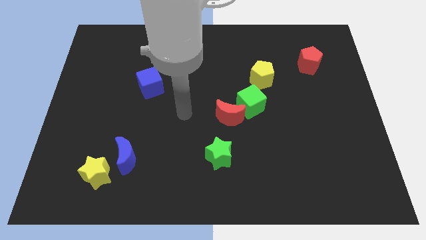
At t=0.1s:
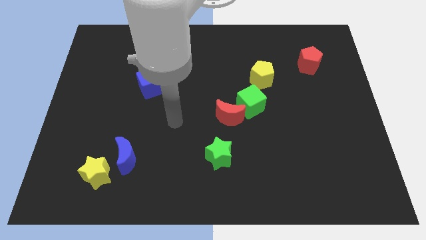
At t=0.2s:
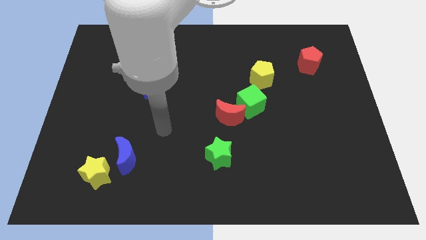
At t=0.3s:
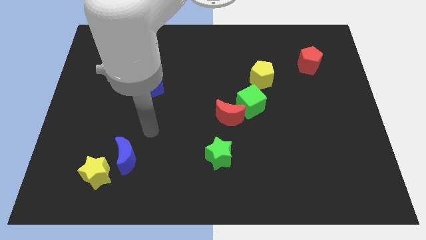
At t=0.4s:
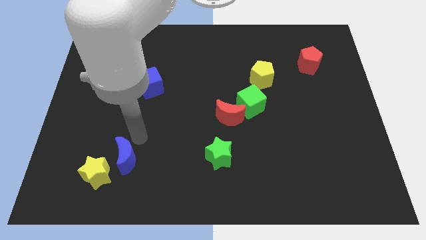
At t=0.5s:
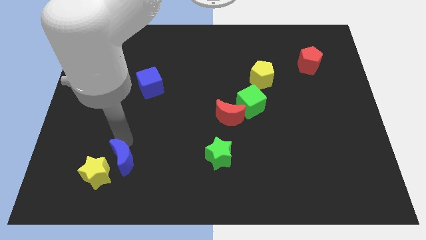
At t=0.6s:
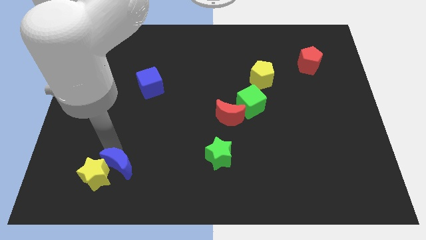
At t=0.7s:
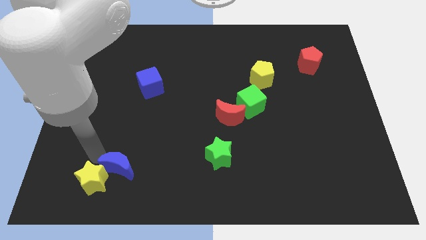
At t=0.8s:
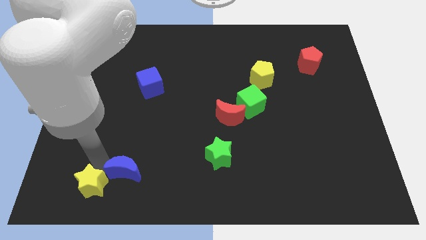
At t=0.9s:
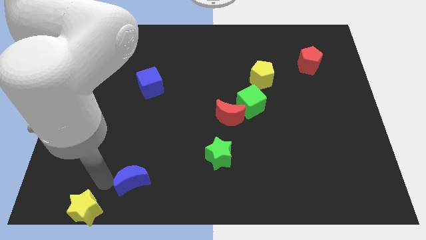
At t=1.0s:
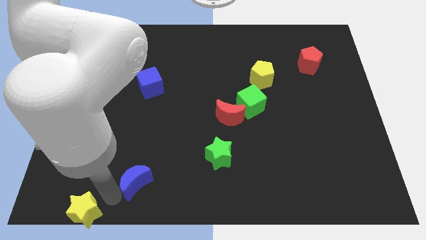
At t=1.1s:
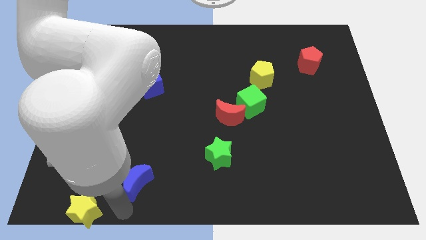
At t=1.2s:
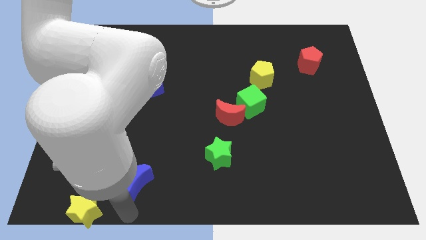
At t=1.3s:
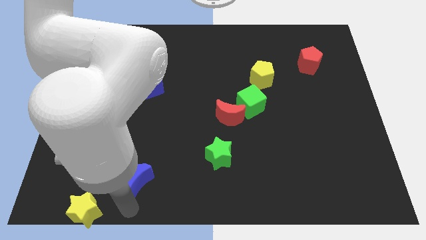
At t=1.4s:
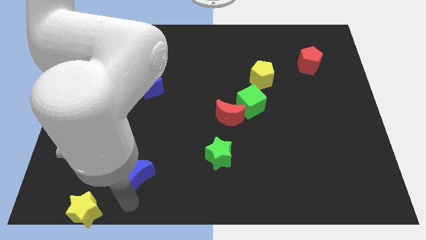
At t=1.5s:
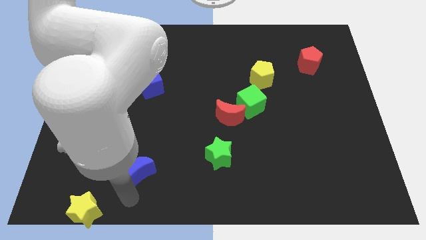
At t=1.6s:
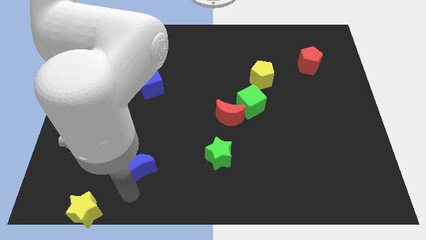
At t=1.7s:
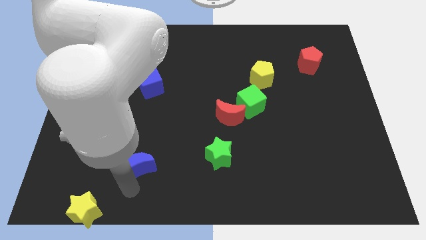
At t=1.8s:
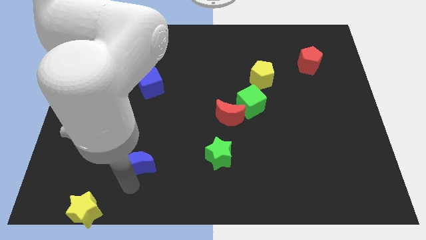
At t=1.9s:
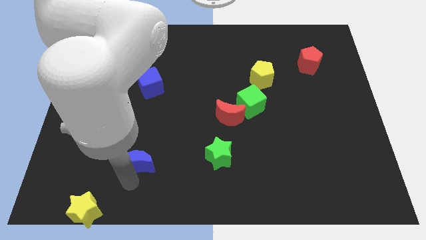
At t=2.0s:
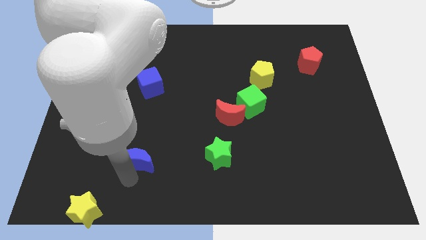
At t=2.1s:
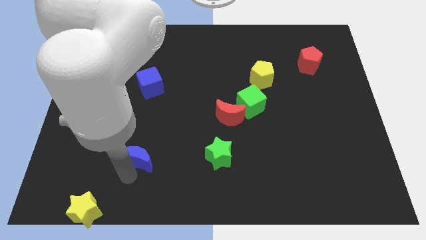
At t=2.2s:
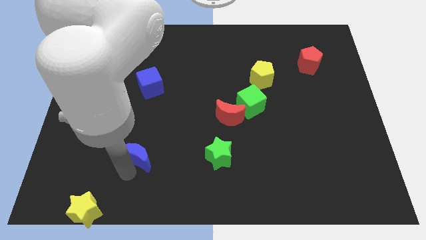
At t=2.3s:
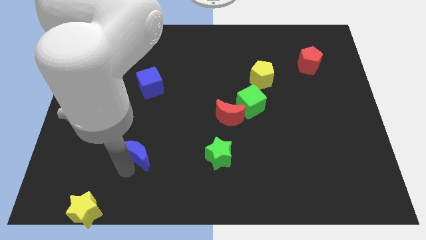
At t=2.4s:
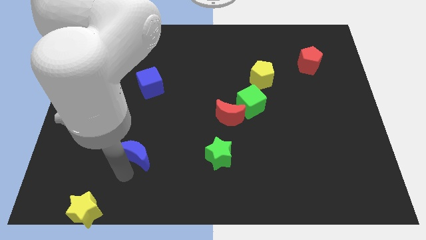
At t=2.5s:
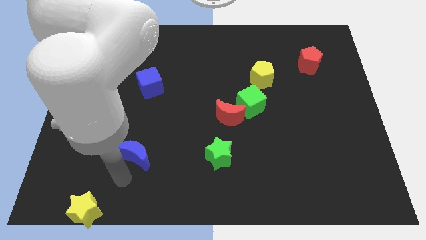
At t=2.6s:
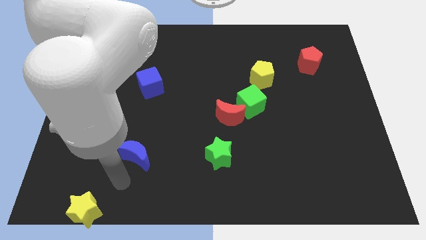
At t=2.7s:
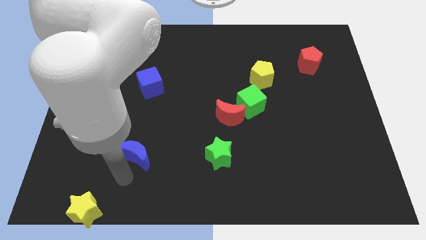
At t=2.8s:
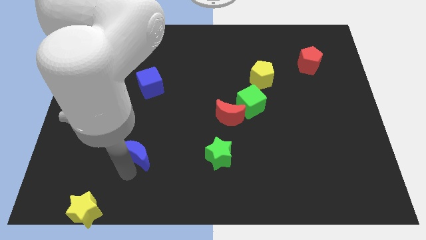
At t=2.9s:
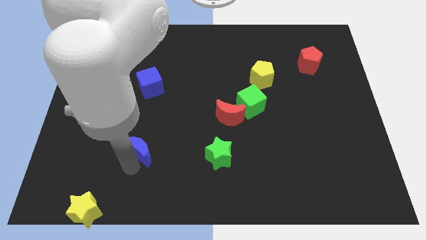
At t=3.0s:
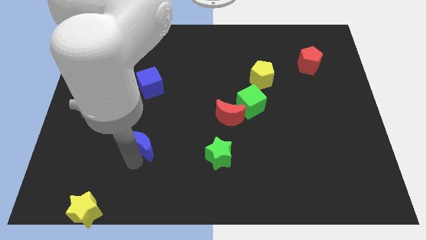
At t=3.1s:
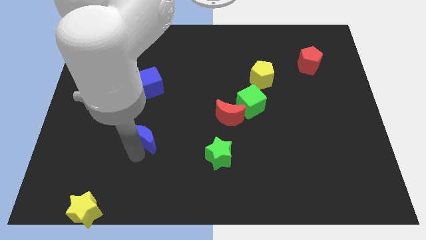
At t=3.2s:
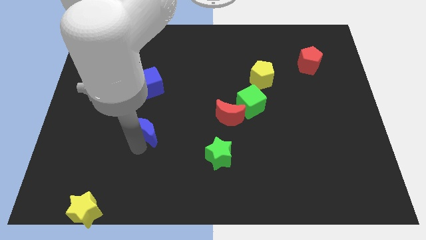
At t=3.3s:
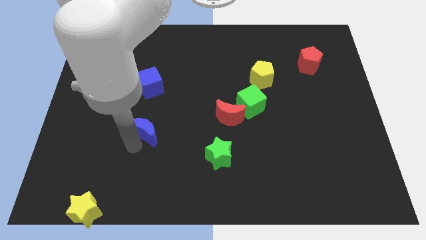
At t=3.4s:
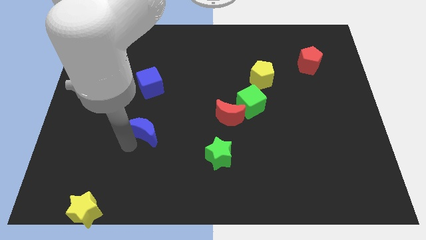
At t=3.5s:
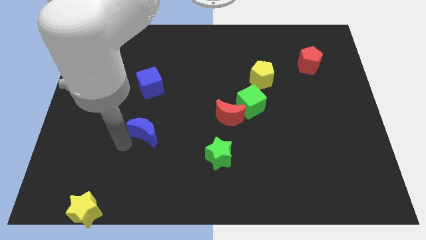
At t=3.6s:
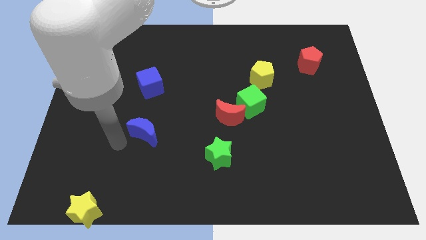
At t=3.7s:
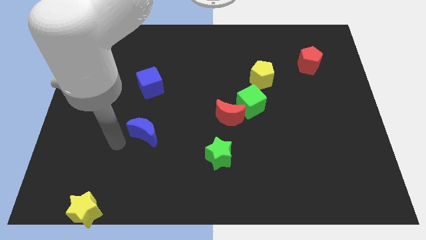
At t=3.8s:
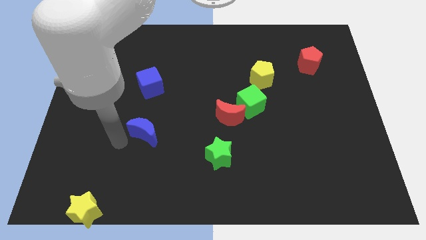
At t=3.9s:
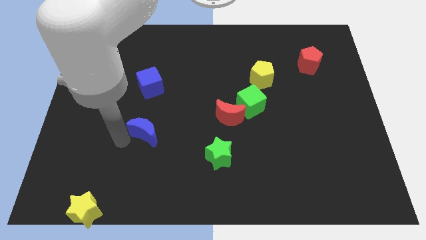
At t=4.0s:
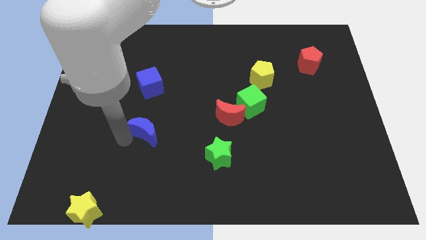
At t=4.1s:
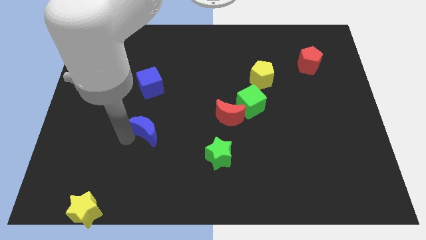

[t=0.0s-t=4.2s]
move the blue moon up and right diagonally a little bit

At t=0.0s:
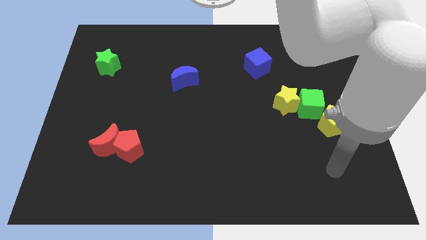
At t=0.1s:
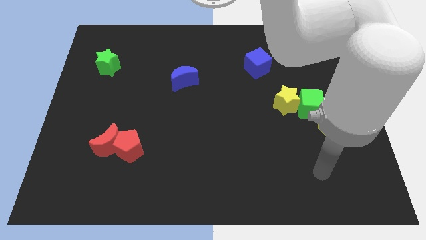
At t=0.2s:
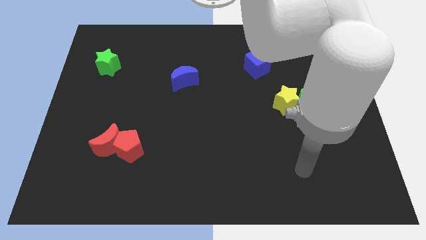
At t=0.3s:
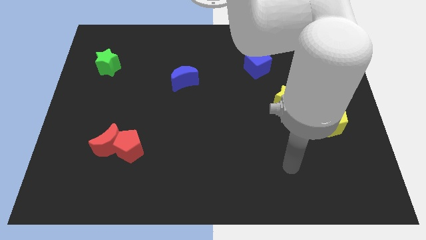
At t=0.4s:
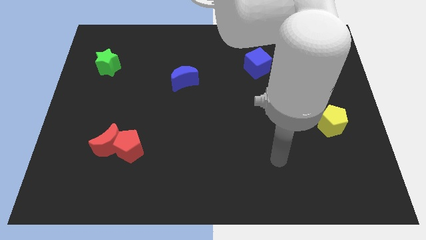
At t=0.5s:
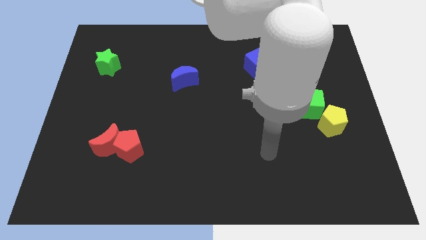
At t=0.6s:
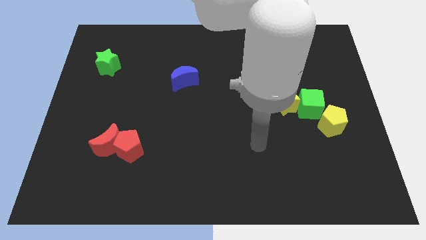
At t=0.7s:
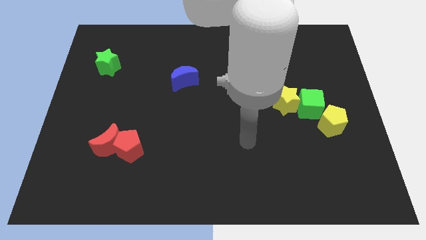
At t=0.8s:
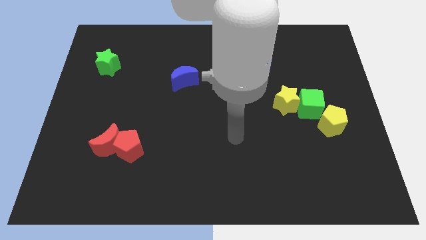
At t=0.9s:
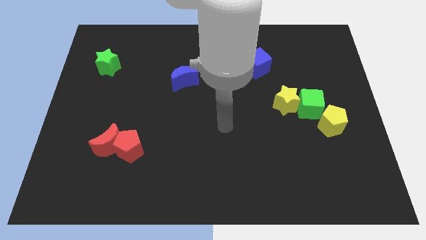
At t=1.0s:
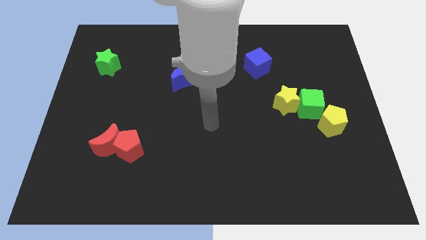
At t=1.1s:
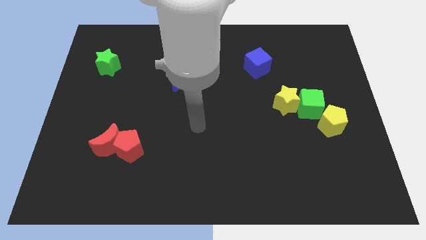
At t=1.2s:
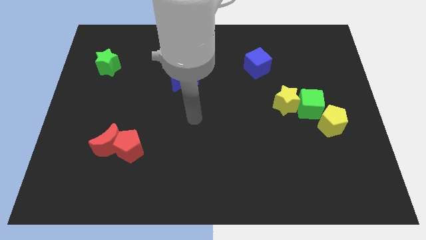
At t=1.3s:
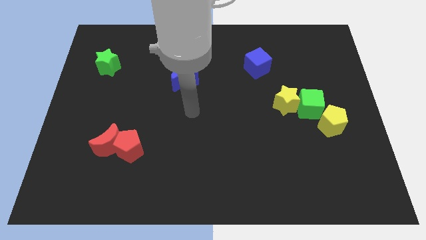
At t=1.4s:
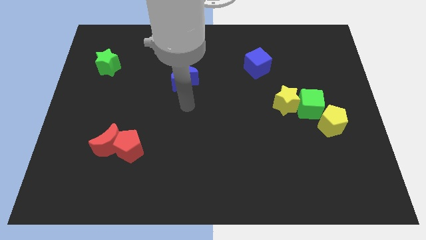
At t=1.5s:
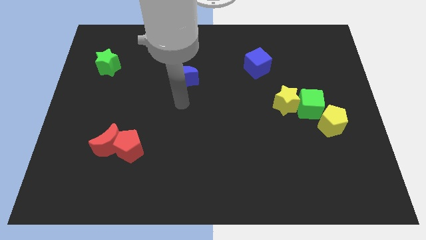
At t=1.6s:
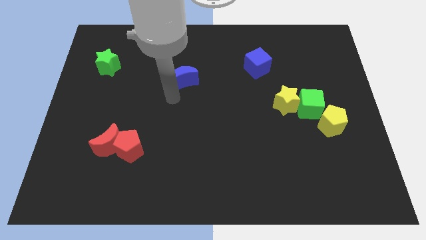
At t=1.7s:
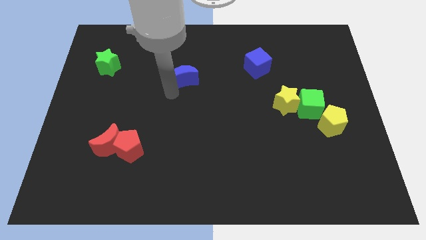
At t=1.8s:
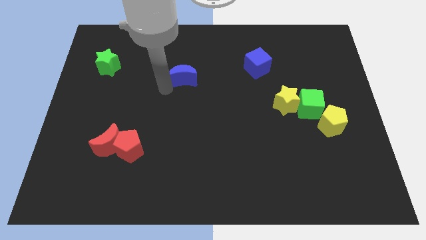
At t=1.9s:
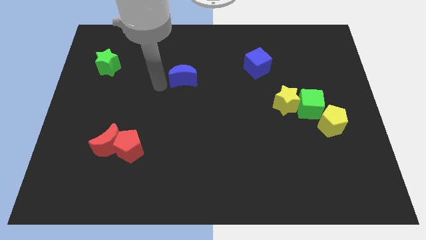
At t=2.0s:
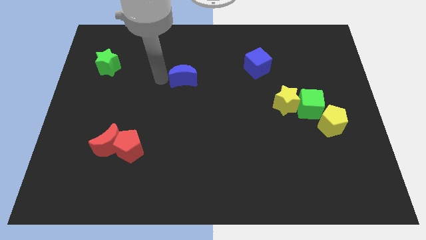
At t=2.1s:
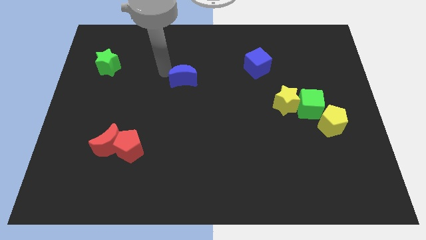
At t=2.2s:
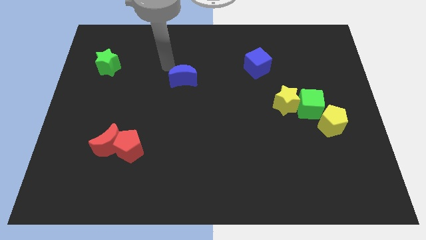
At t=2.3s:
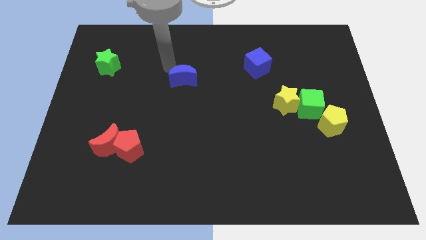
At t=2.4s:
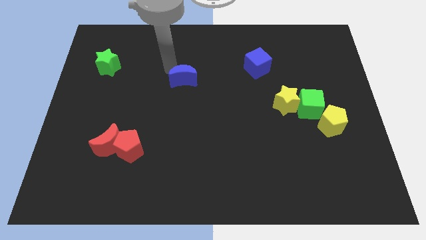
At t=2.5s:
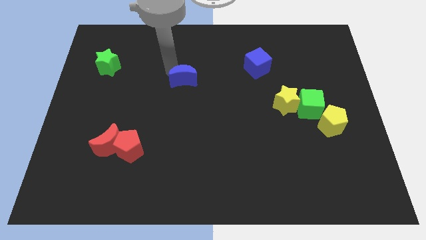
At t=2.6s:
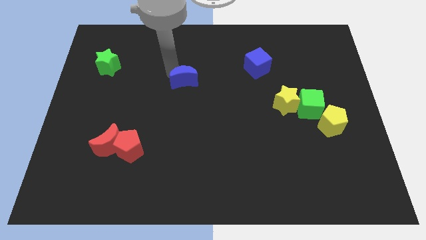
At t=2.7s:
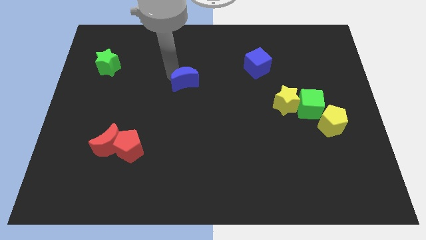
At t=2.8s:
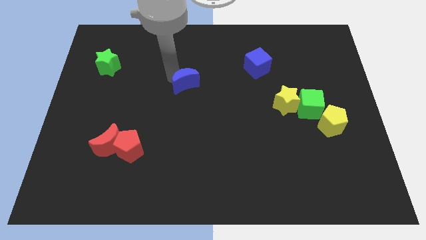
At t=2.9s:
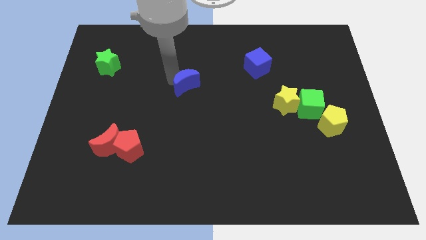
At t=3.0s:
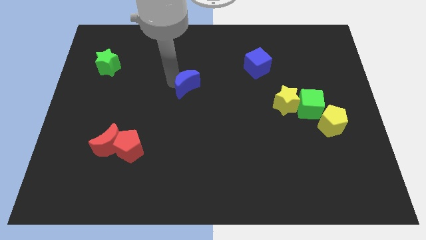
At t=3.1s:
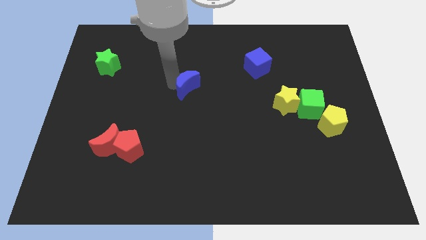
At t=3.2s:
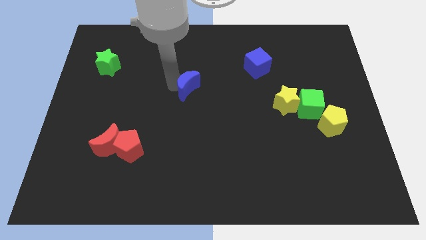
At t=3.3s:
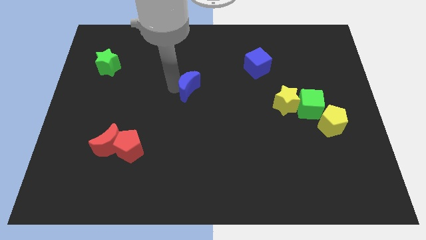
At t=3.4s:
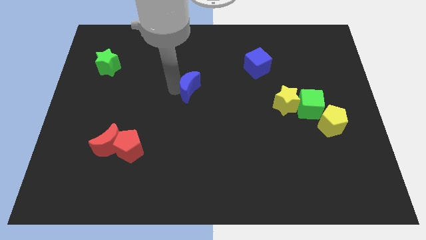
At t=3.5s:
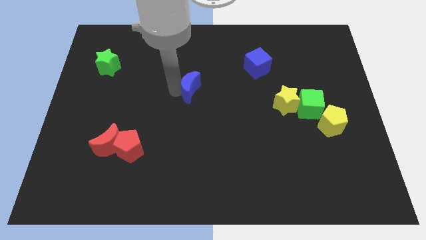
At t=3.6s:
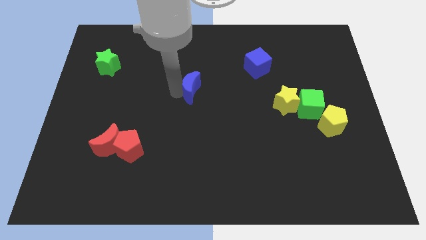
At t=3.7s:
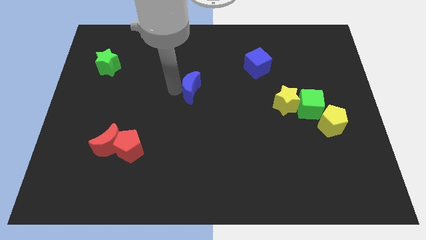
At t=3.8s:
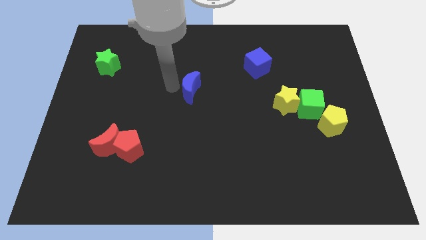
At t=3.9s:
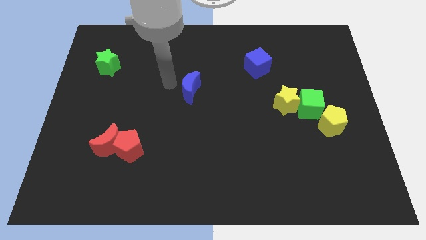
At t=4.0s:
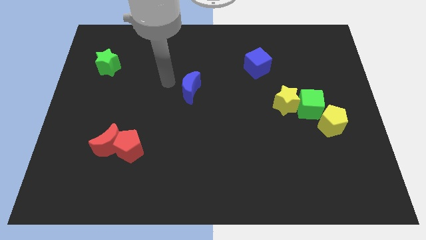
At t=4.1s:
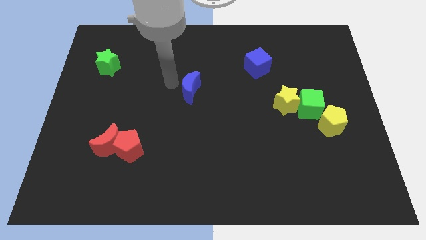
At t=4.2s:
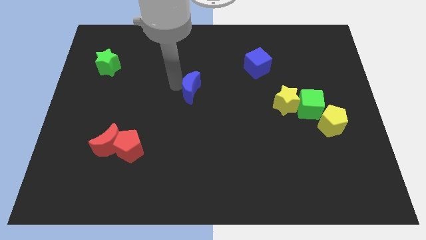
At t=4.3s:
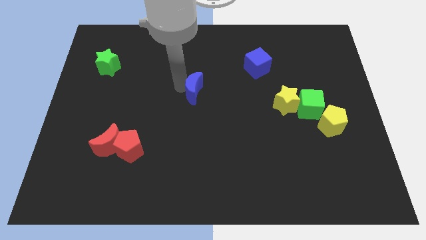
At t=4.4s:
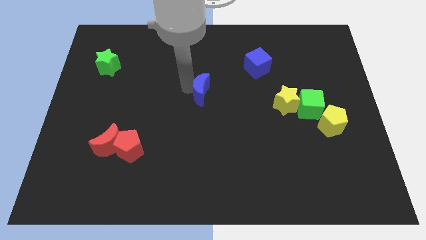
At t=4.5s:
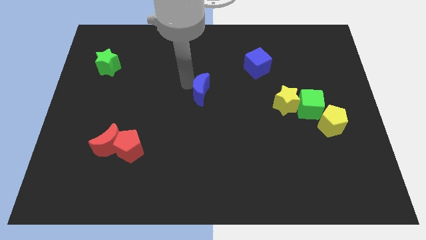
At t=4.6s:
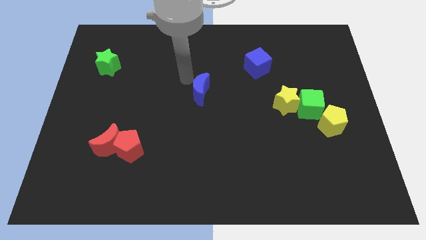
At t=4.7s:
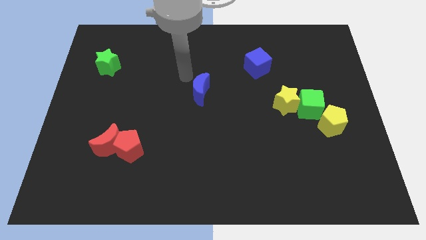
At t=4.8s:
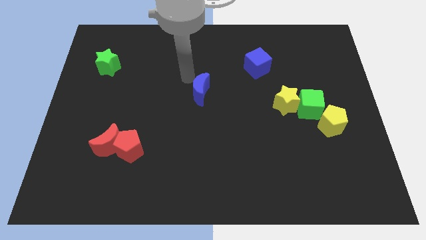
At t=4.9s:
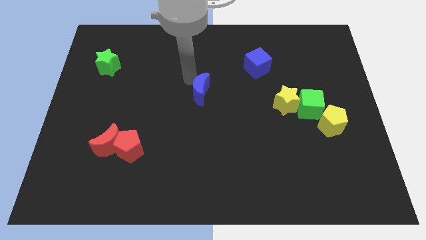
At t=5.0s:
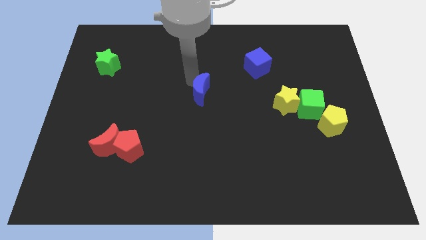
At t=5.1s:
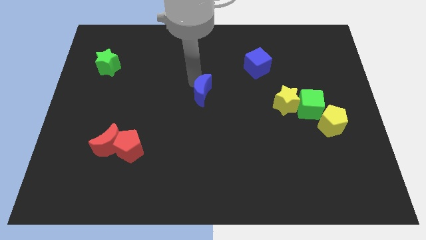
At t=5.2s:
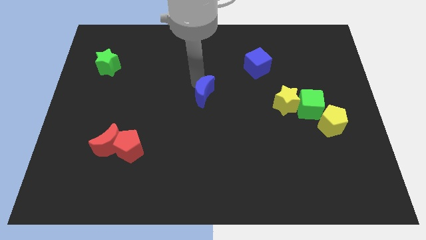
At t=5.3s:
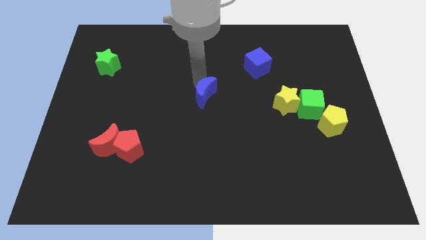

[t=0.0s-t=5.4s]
move the blue moon slightly downwards and then right
